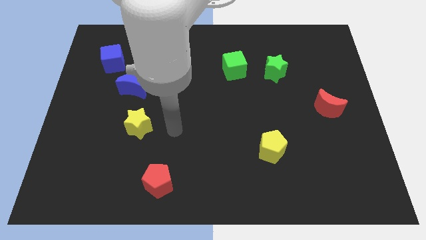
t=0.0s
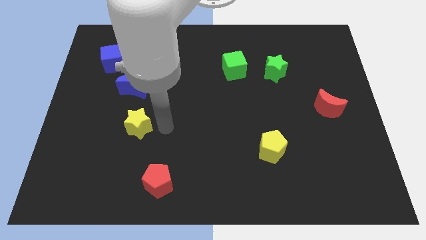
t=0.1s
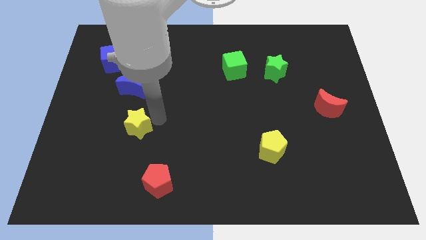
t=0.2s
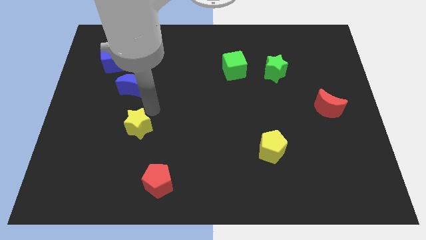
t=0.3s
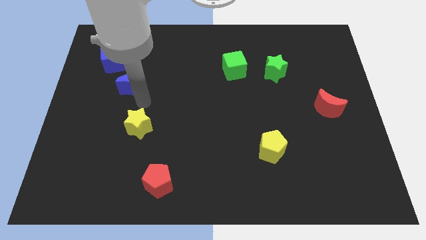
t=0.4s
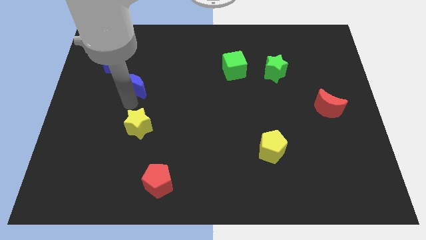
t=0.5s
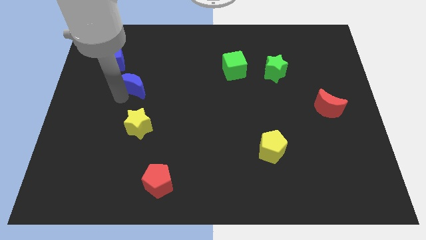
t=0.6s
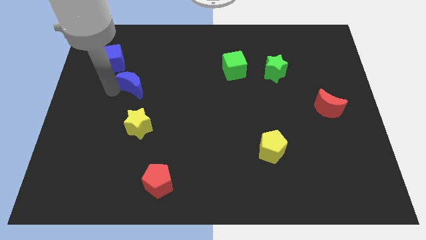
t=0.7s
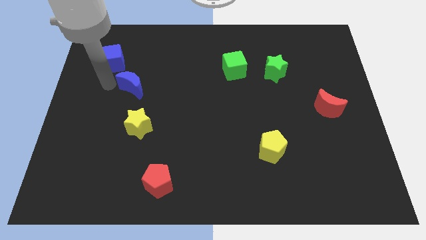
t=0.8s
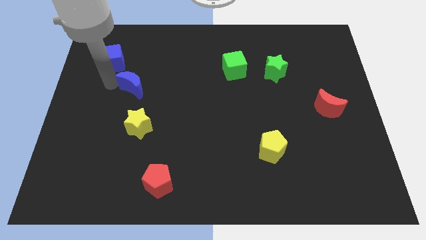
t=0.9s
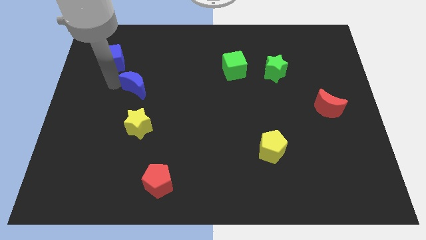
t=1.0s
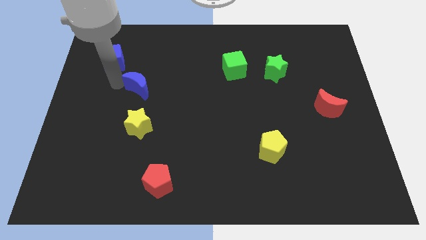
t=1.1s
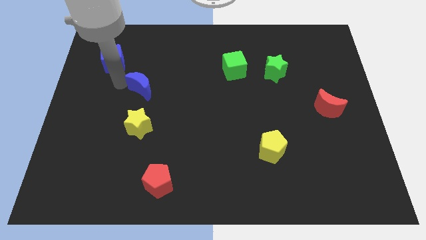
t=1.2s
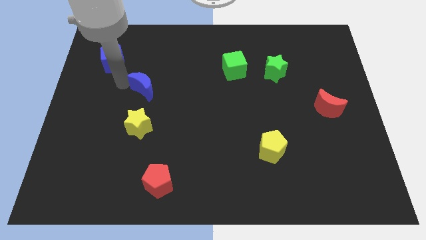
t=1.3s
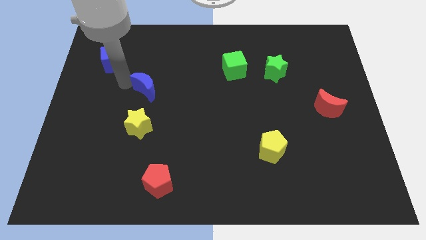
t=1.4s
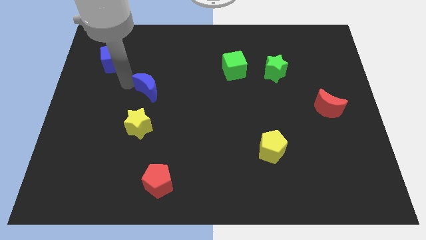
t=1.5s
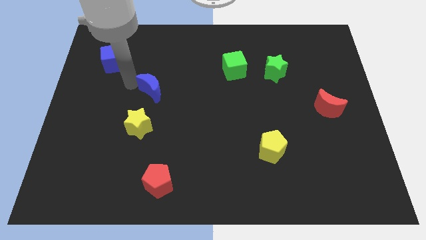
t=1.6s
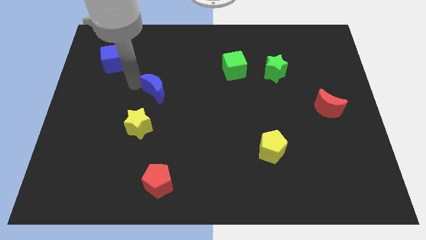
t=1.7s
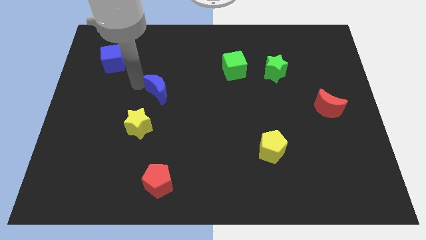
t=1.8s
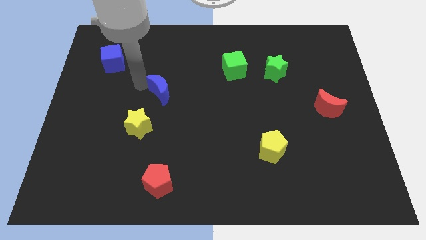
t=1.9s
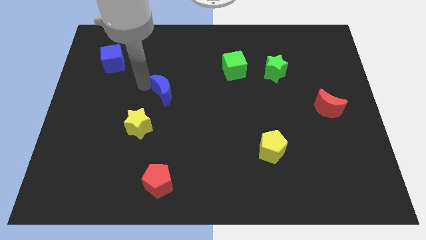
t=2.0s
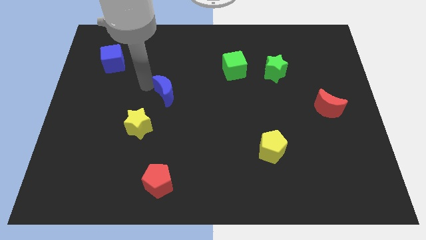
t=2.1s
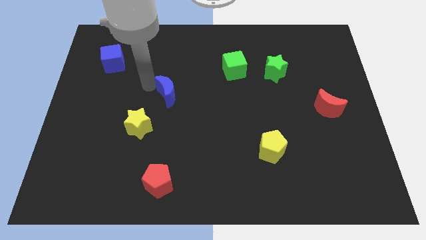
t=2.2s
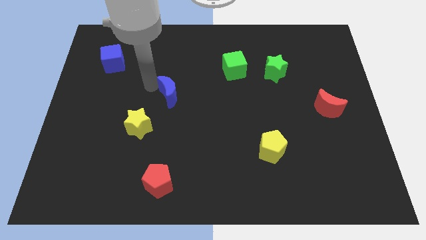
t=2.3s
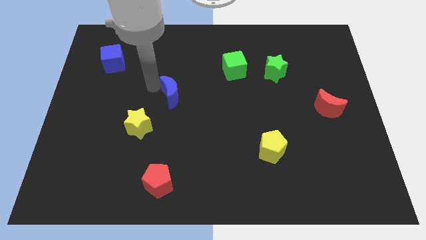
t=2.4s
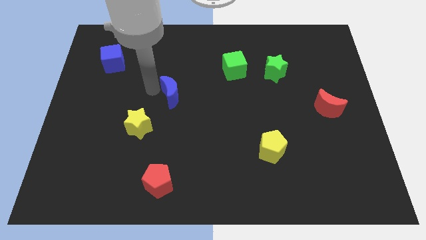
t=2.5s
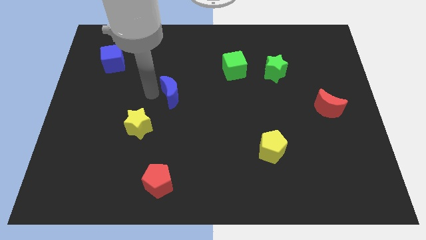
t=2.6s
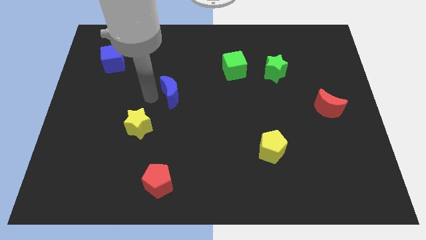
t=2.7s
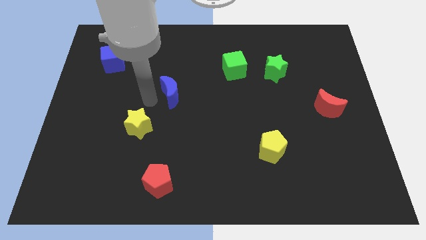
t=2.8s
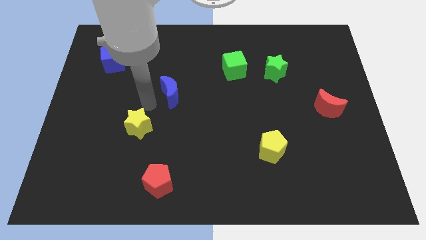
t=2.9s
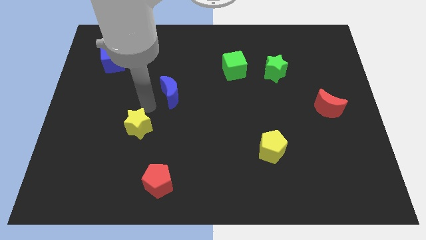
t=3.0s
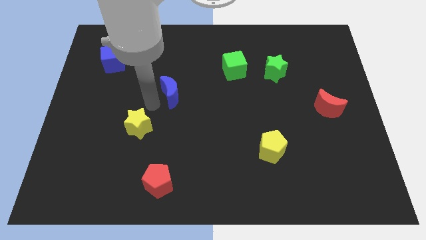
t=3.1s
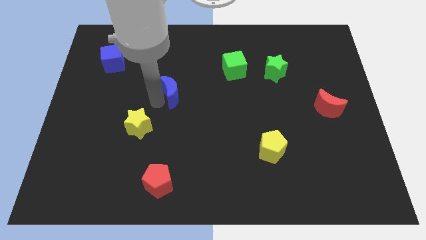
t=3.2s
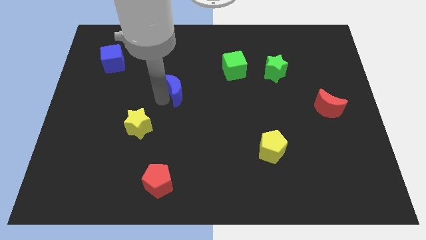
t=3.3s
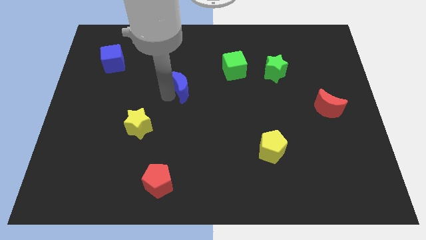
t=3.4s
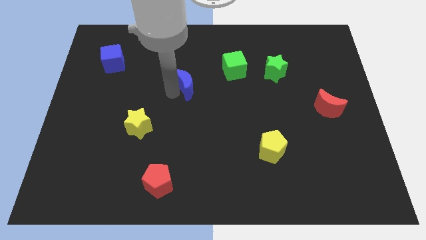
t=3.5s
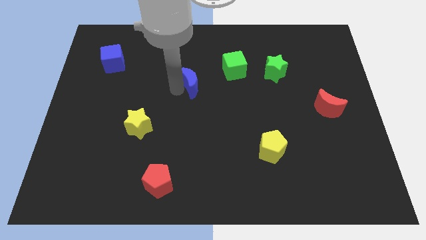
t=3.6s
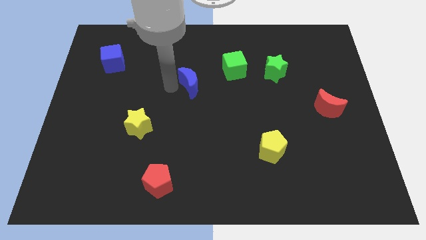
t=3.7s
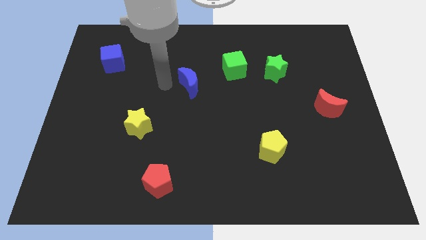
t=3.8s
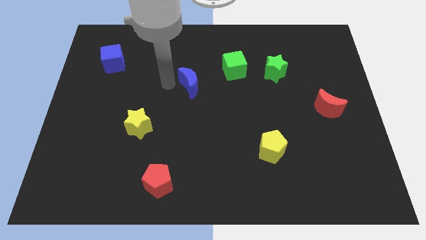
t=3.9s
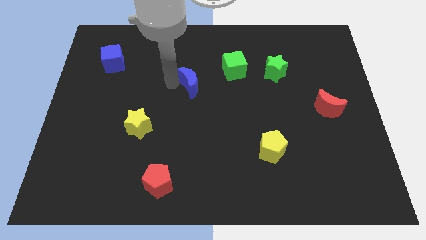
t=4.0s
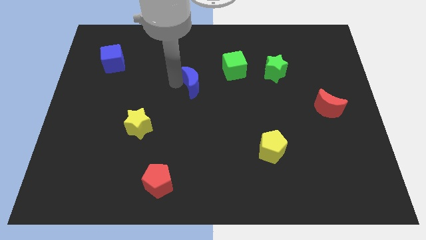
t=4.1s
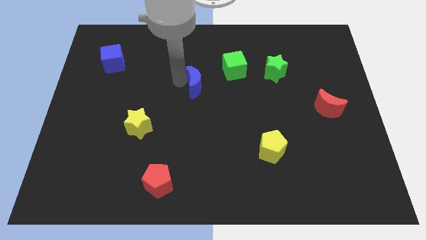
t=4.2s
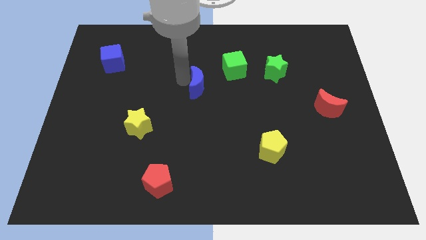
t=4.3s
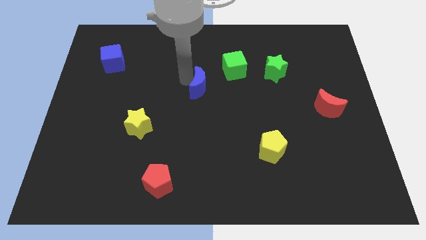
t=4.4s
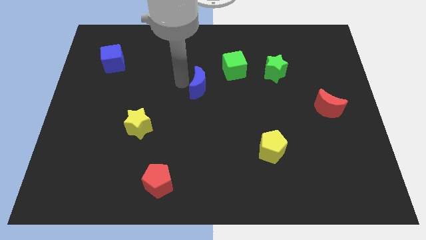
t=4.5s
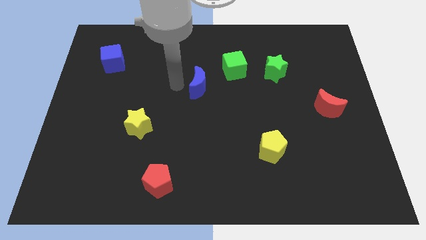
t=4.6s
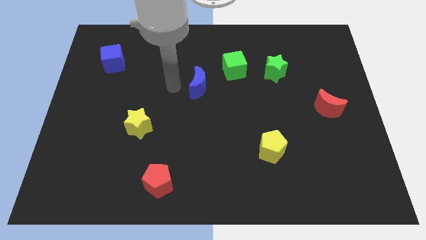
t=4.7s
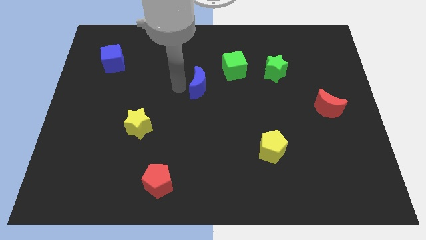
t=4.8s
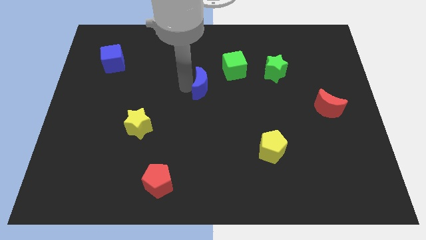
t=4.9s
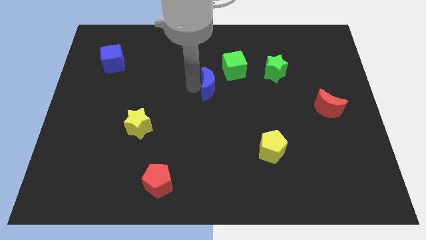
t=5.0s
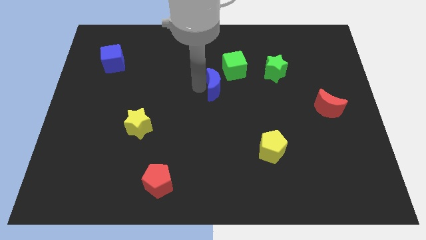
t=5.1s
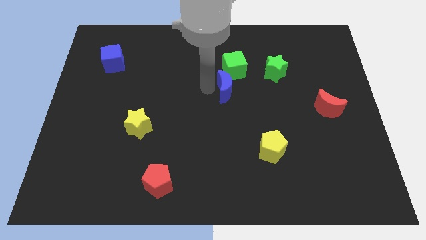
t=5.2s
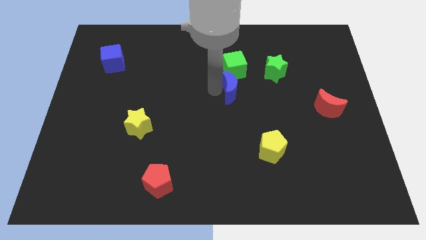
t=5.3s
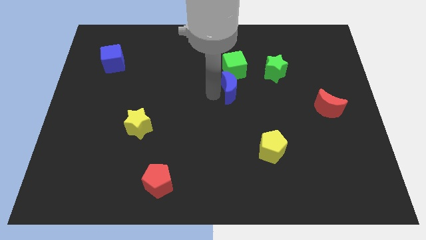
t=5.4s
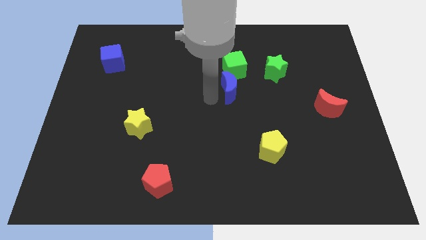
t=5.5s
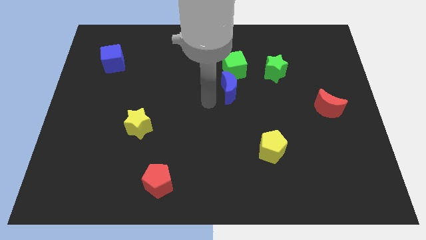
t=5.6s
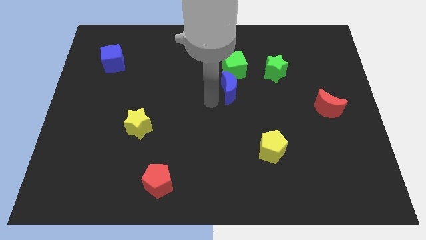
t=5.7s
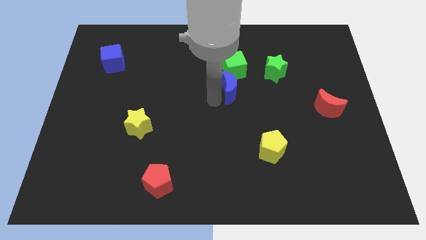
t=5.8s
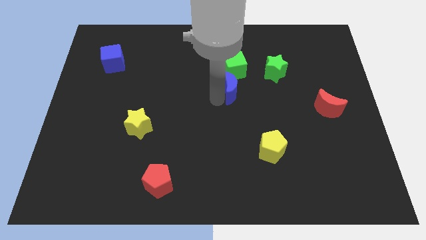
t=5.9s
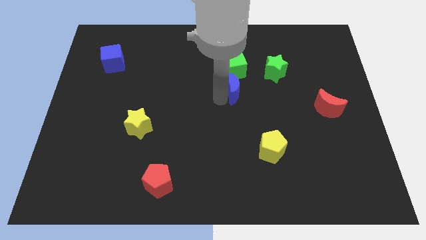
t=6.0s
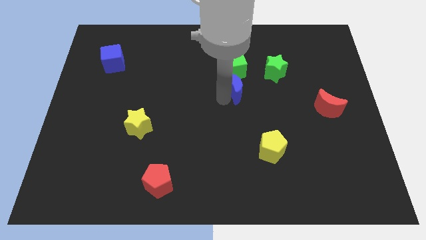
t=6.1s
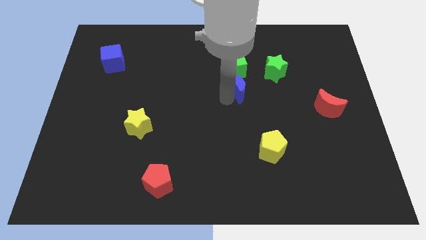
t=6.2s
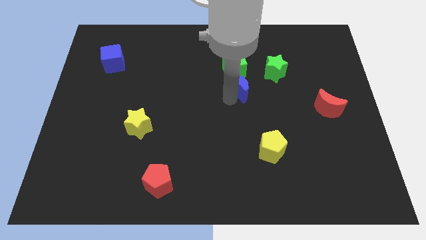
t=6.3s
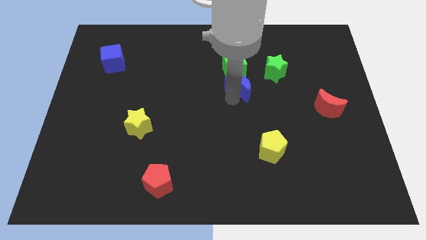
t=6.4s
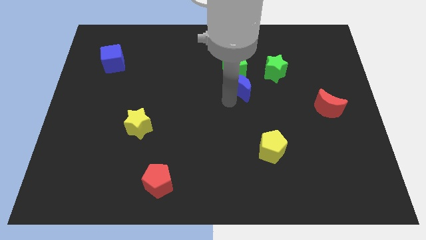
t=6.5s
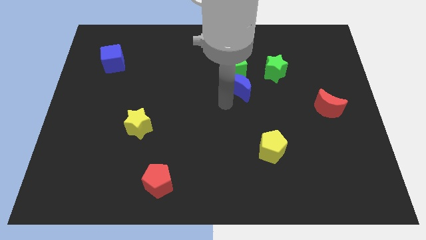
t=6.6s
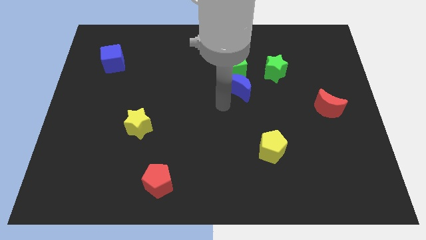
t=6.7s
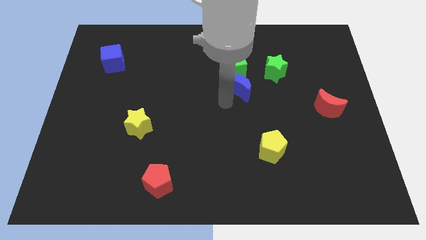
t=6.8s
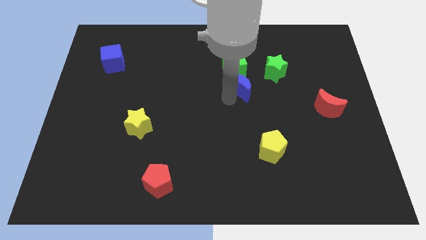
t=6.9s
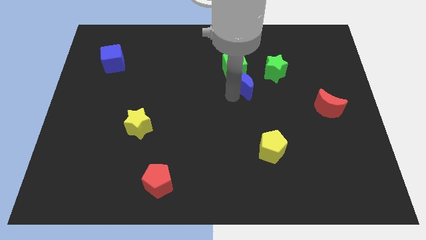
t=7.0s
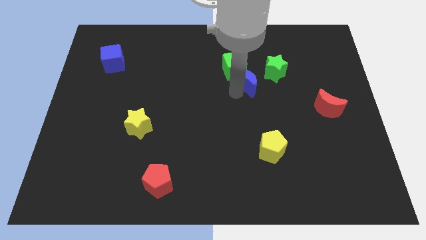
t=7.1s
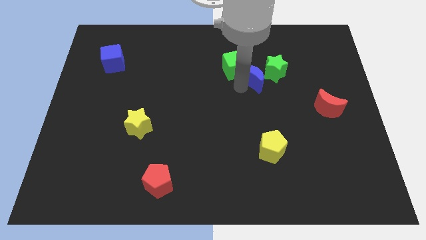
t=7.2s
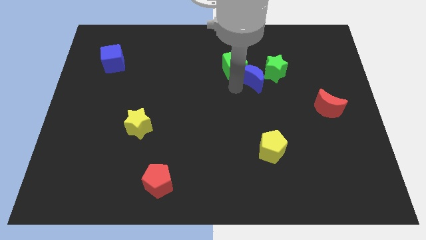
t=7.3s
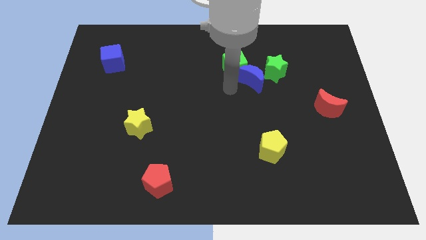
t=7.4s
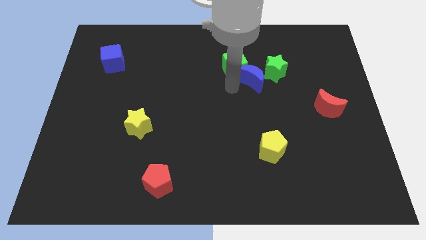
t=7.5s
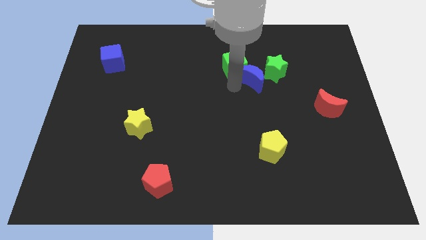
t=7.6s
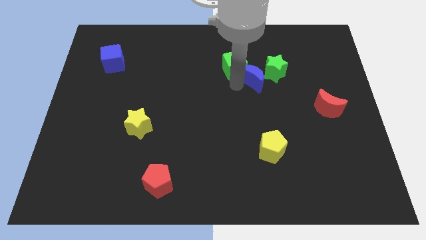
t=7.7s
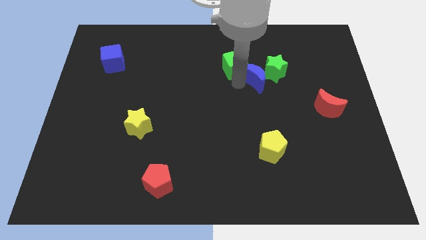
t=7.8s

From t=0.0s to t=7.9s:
push the blue moon towards the green star
